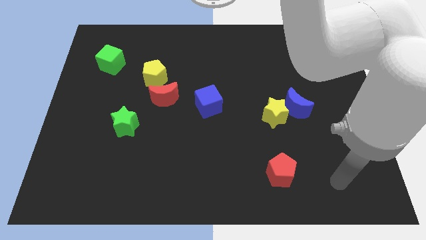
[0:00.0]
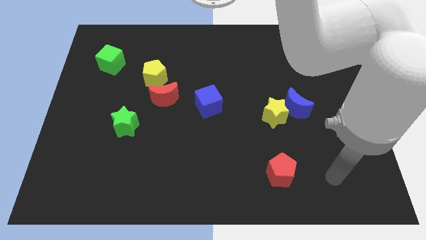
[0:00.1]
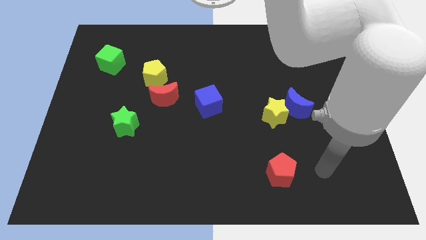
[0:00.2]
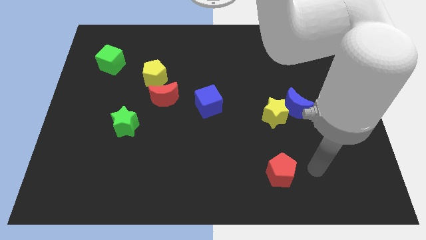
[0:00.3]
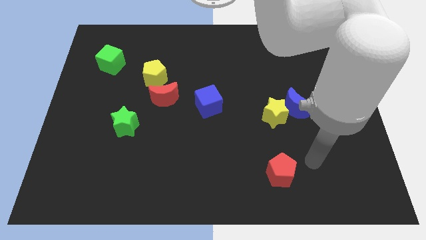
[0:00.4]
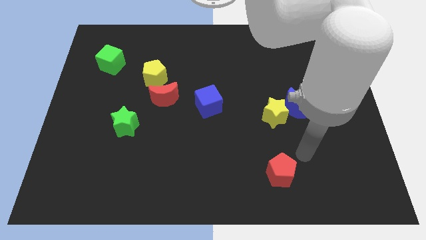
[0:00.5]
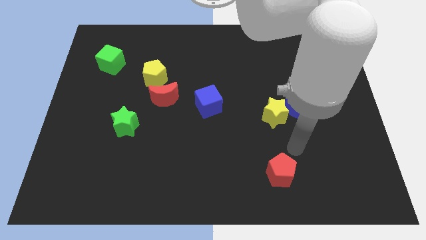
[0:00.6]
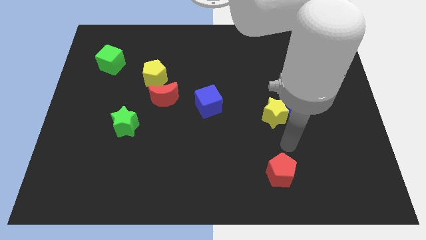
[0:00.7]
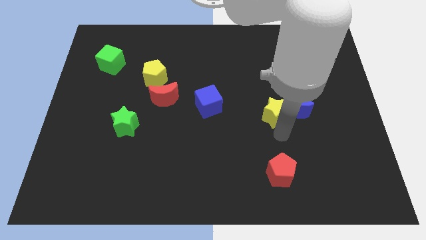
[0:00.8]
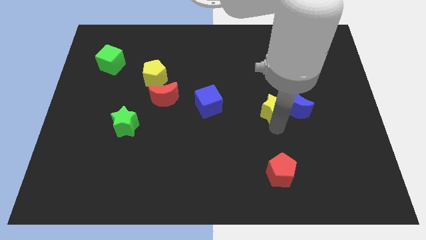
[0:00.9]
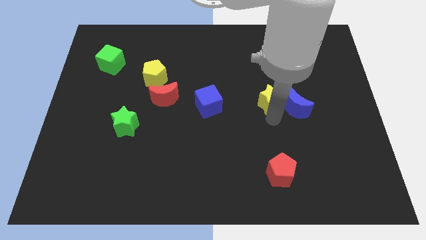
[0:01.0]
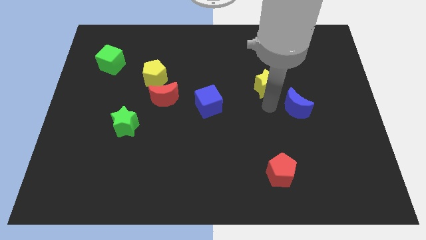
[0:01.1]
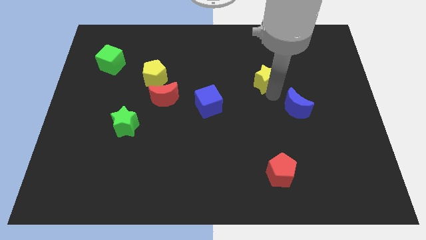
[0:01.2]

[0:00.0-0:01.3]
separate the blue moon from the yellow star

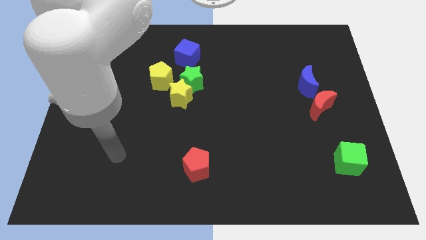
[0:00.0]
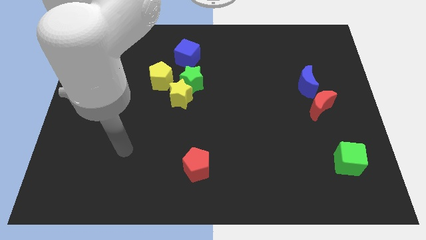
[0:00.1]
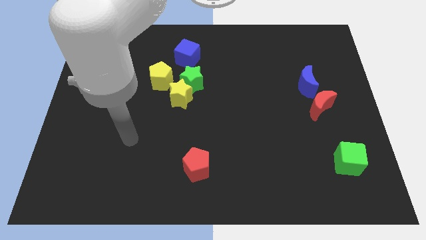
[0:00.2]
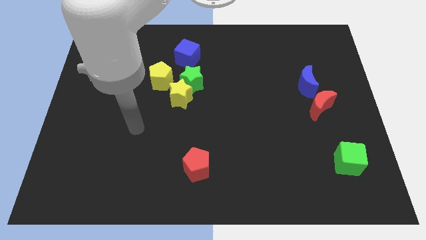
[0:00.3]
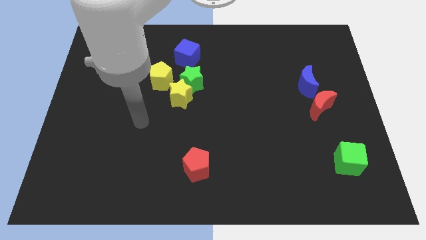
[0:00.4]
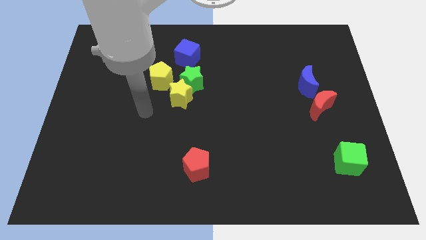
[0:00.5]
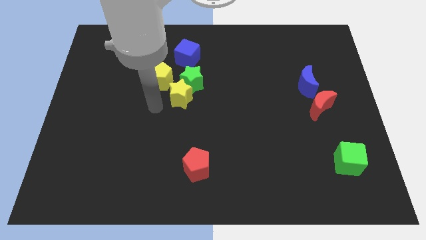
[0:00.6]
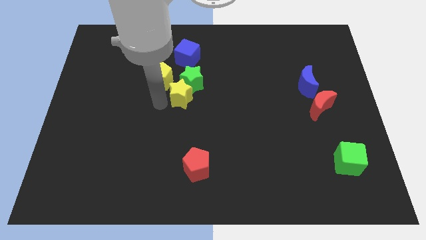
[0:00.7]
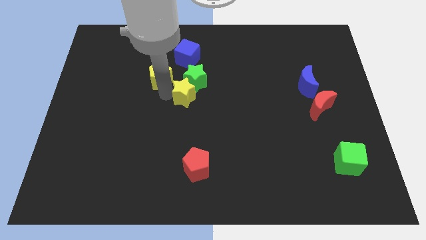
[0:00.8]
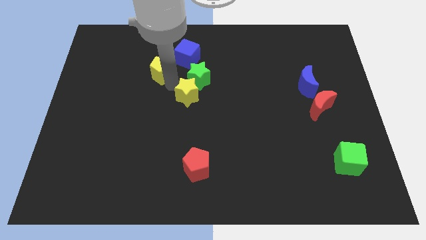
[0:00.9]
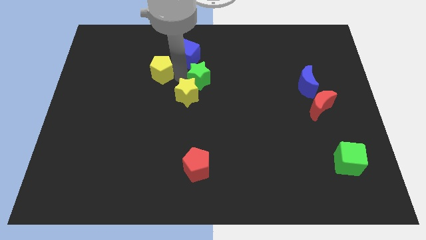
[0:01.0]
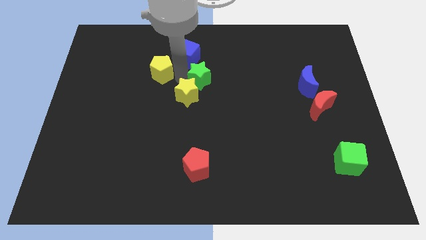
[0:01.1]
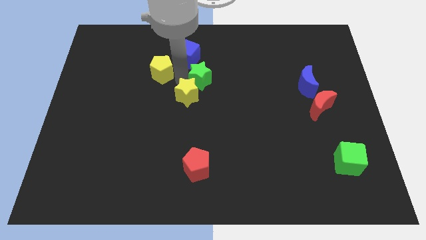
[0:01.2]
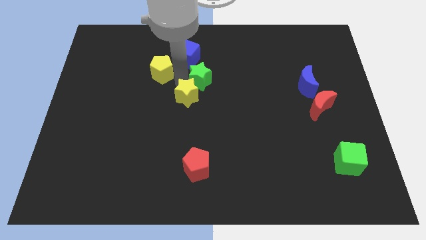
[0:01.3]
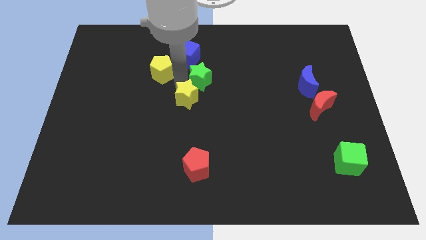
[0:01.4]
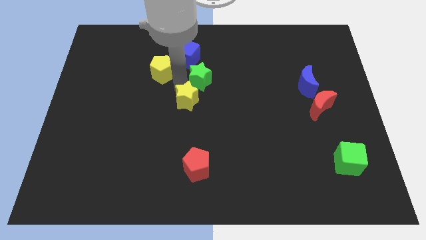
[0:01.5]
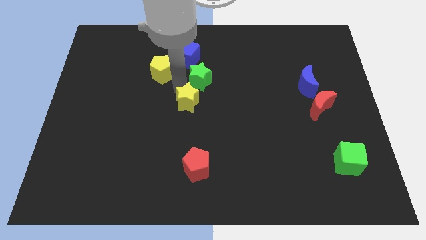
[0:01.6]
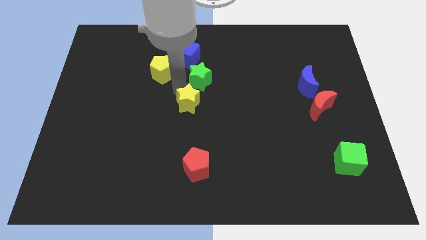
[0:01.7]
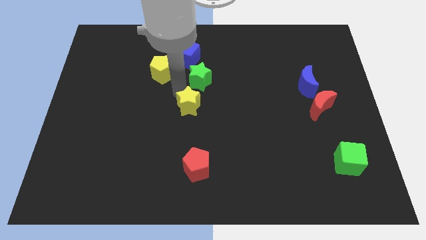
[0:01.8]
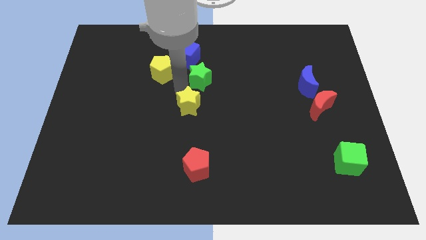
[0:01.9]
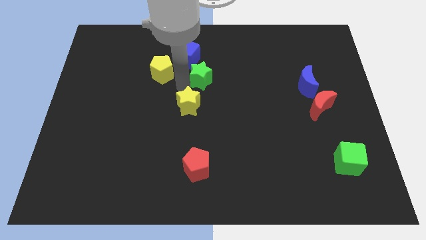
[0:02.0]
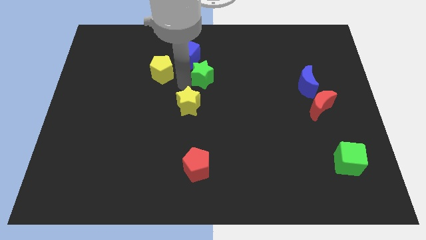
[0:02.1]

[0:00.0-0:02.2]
separate the yellow star from the green star and yellow pentagon

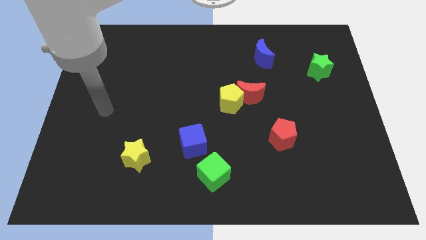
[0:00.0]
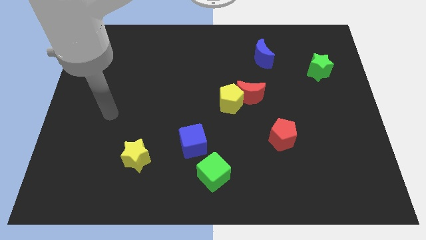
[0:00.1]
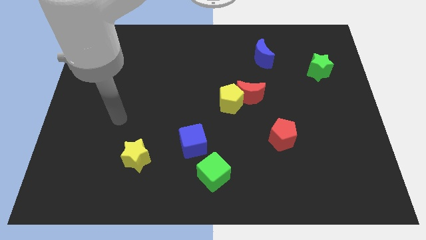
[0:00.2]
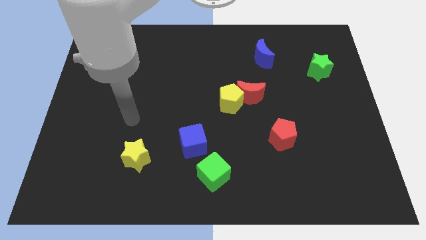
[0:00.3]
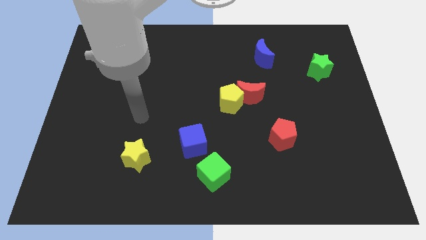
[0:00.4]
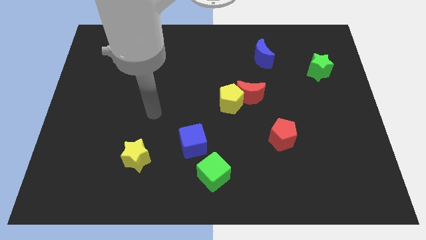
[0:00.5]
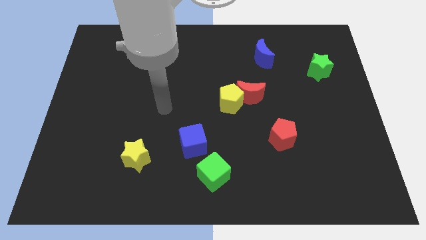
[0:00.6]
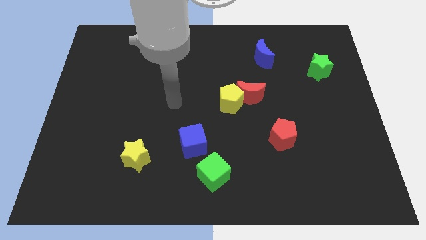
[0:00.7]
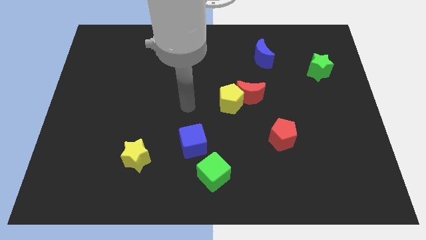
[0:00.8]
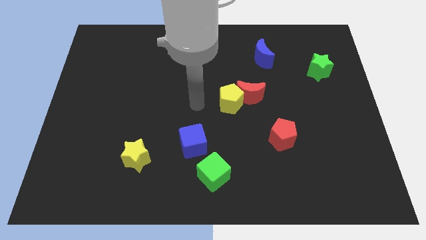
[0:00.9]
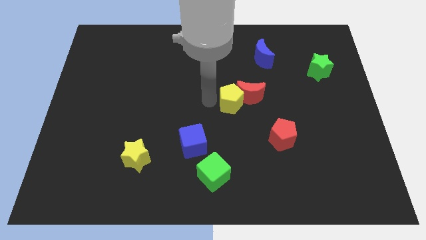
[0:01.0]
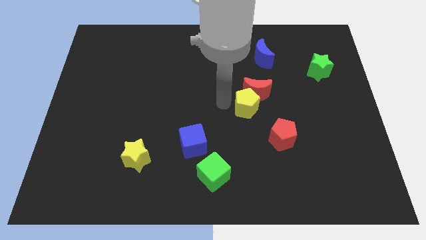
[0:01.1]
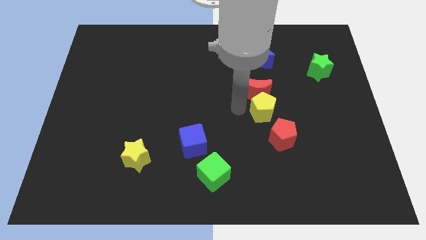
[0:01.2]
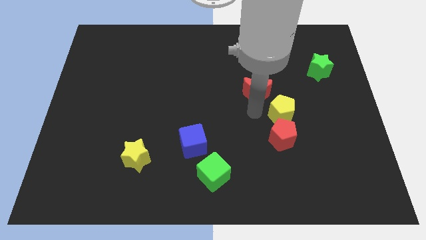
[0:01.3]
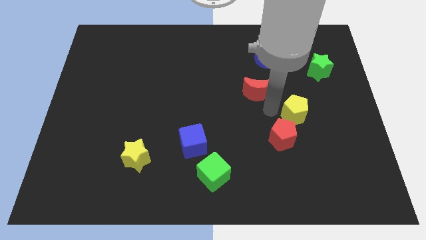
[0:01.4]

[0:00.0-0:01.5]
move the red moon away from the yellow pentagon

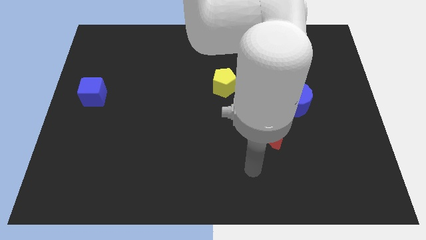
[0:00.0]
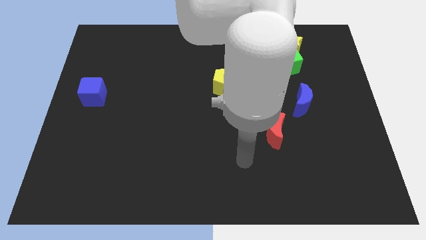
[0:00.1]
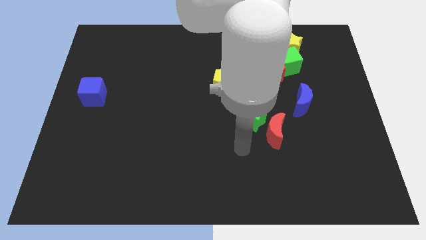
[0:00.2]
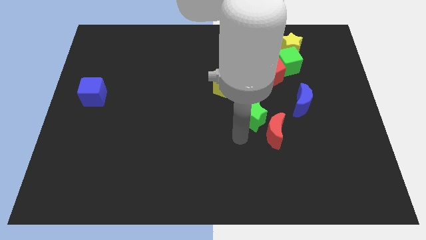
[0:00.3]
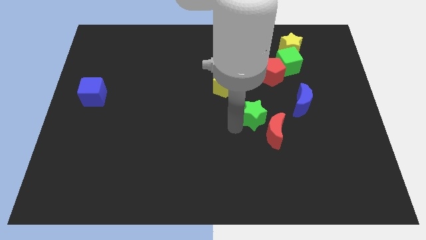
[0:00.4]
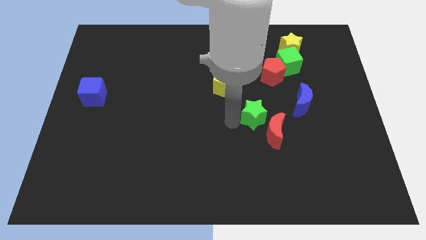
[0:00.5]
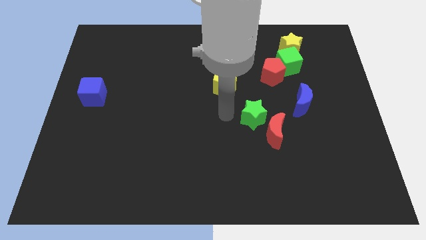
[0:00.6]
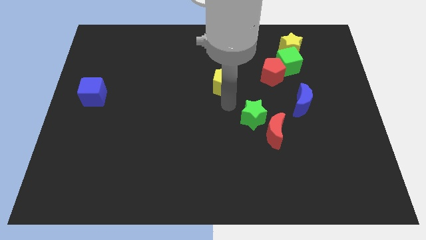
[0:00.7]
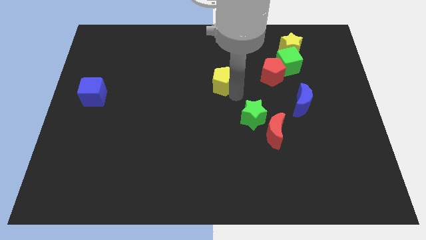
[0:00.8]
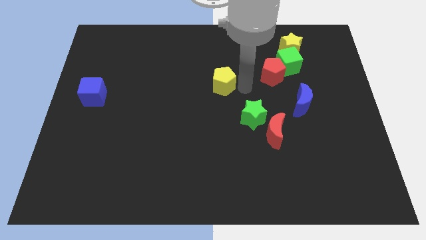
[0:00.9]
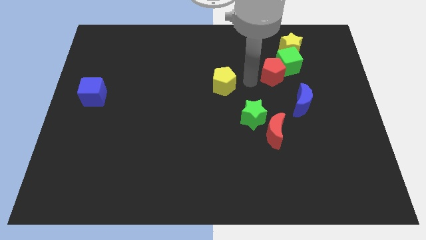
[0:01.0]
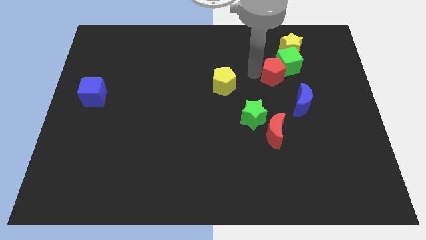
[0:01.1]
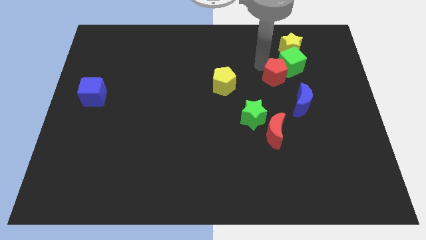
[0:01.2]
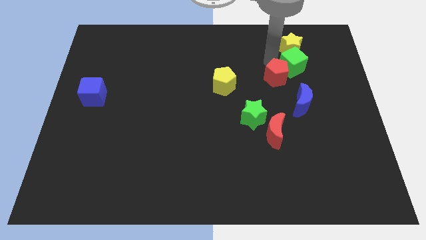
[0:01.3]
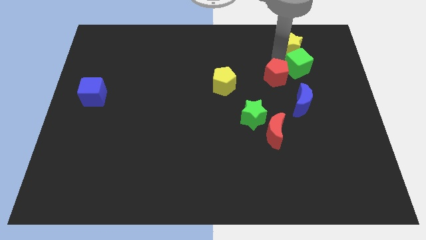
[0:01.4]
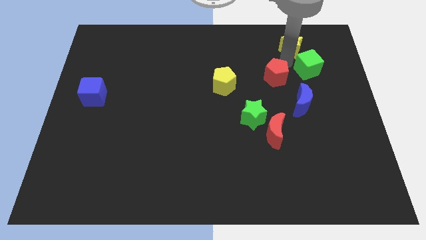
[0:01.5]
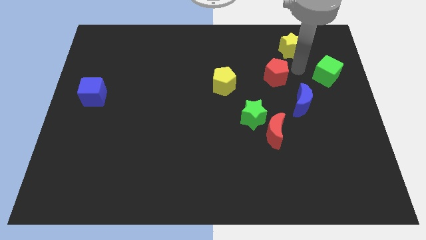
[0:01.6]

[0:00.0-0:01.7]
separate the red pentagon from the green cube

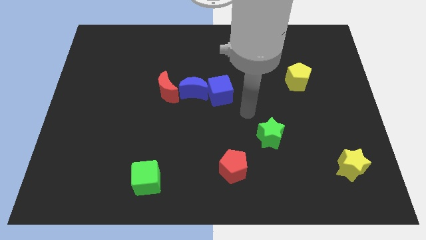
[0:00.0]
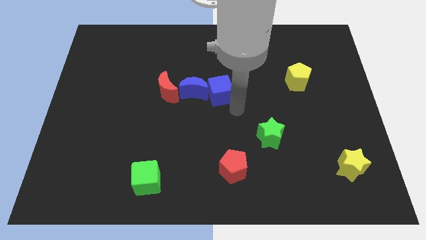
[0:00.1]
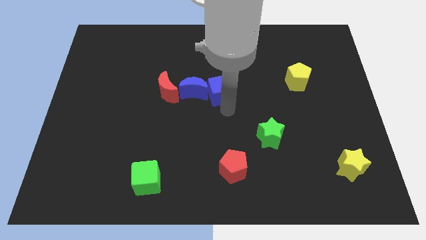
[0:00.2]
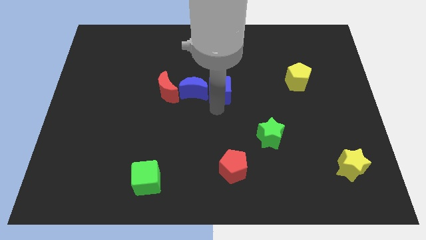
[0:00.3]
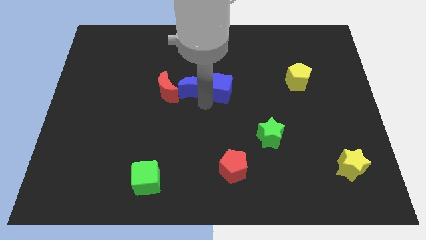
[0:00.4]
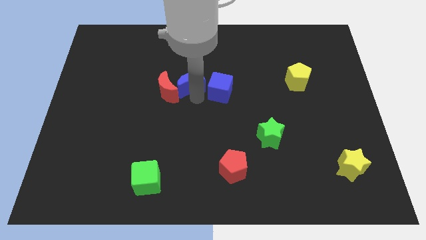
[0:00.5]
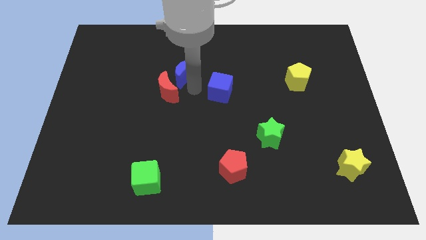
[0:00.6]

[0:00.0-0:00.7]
move the blue cube away from the blue moon

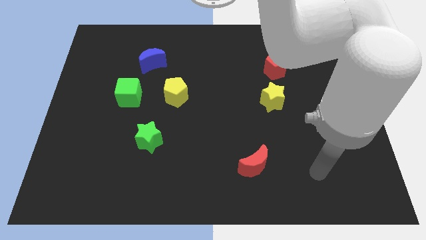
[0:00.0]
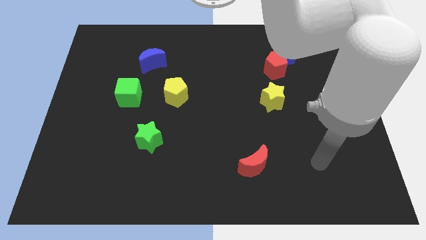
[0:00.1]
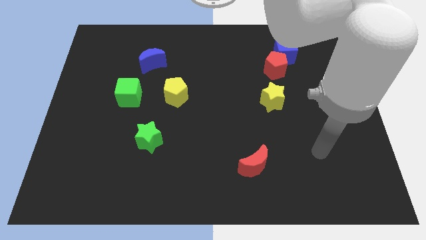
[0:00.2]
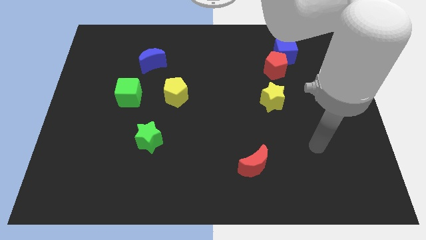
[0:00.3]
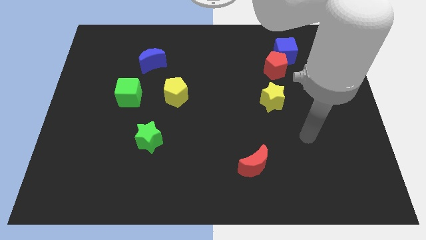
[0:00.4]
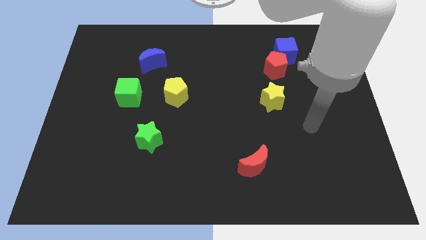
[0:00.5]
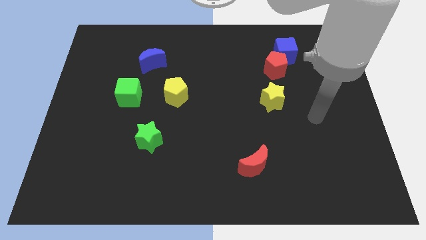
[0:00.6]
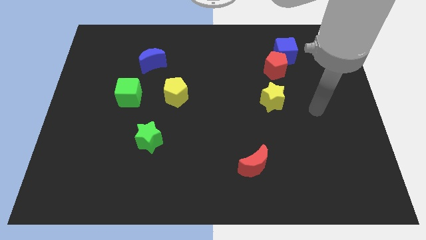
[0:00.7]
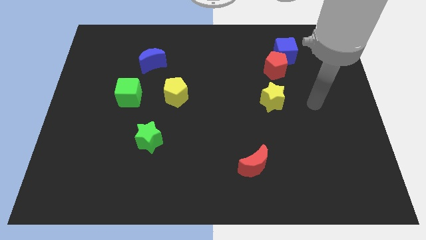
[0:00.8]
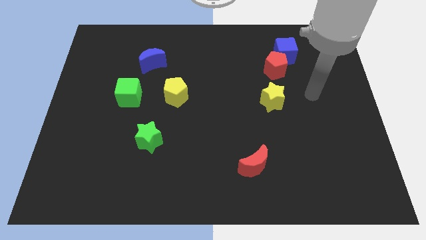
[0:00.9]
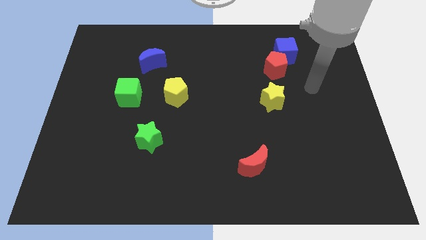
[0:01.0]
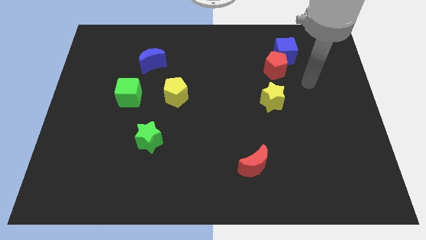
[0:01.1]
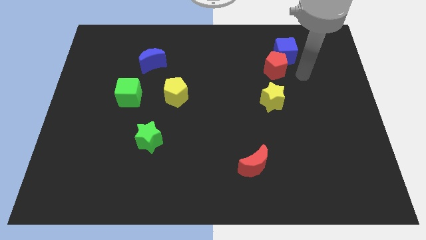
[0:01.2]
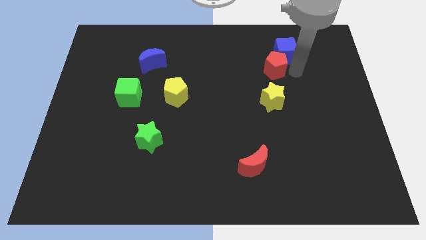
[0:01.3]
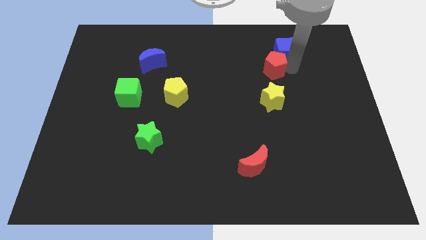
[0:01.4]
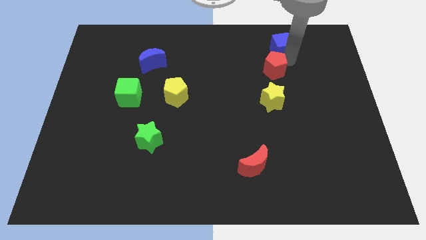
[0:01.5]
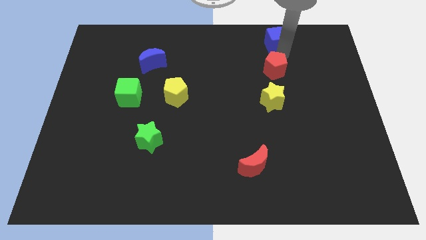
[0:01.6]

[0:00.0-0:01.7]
pull the red pentagon apart from the blue cube
